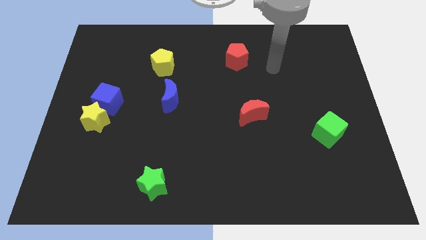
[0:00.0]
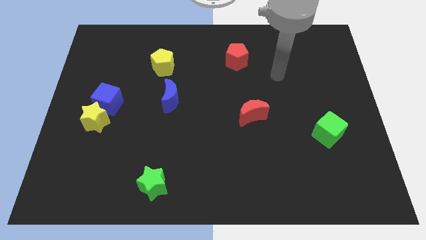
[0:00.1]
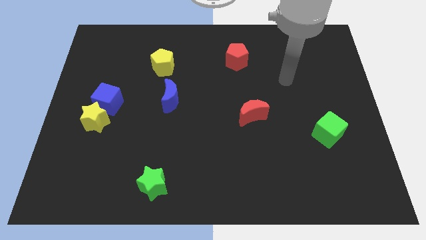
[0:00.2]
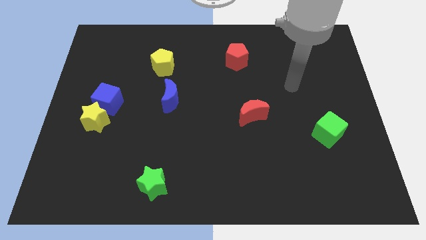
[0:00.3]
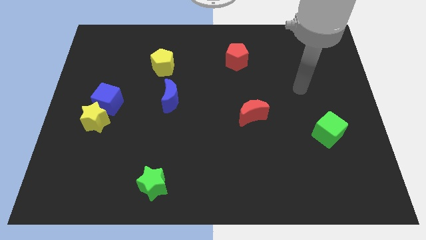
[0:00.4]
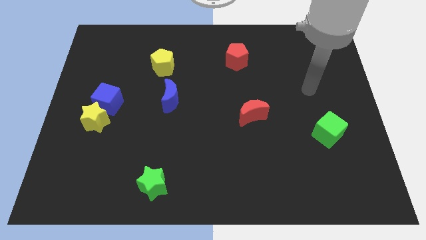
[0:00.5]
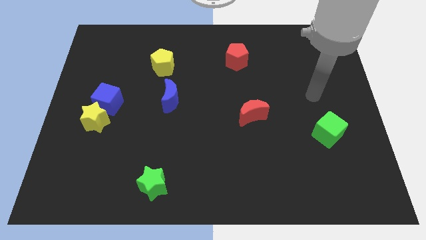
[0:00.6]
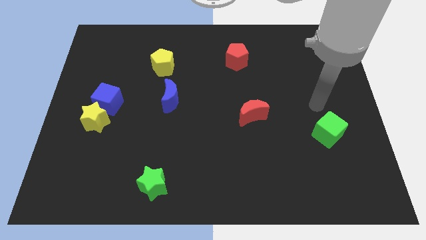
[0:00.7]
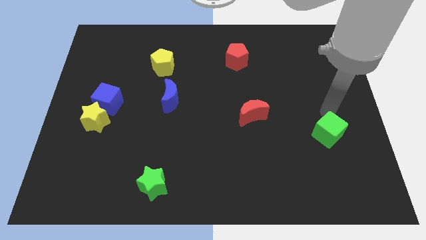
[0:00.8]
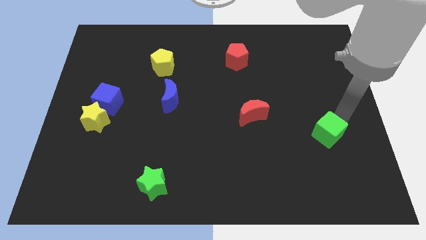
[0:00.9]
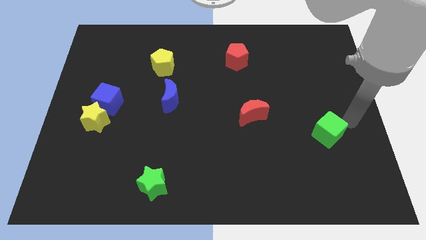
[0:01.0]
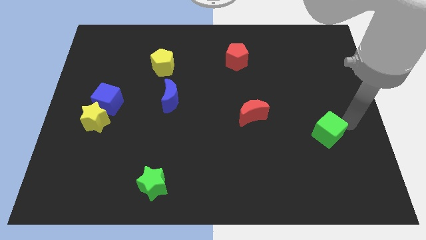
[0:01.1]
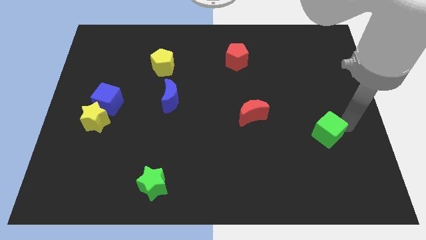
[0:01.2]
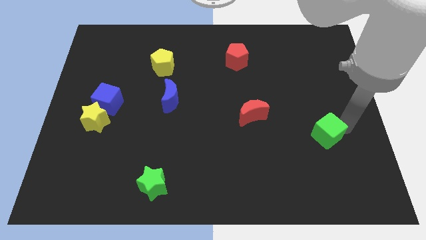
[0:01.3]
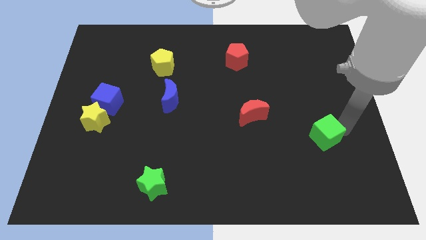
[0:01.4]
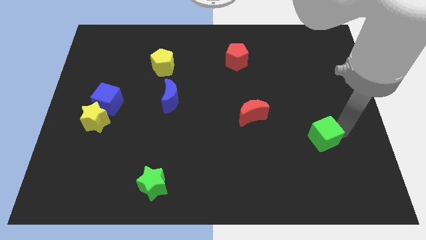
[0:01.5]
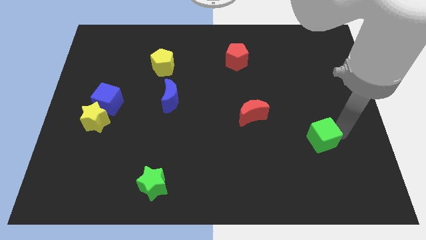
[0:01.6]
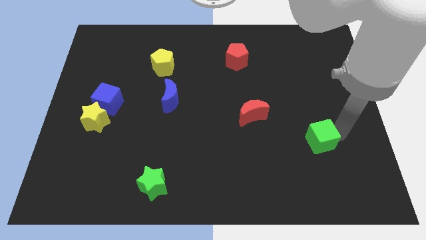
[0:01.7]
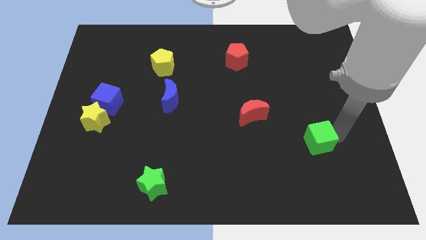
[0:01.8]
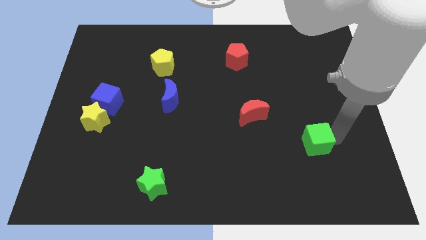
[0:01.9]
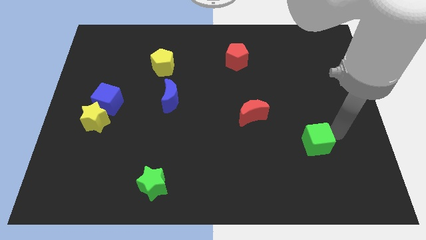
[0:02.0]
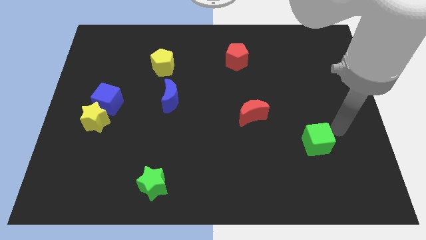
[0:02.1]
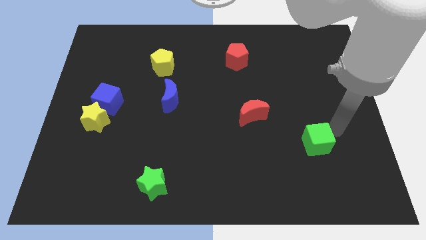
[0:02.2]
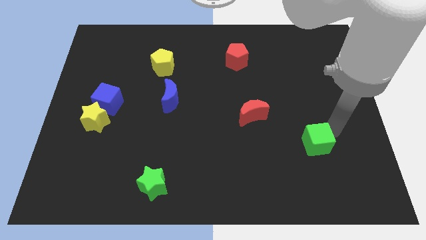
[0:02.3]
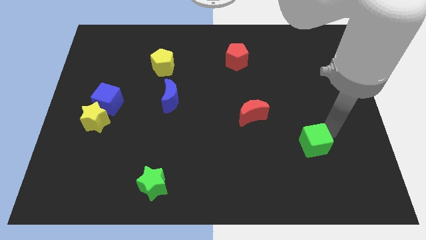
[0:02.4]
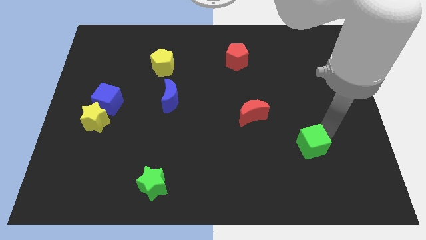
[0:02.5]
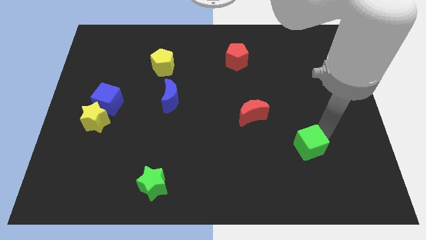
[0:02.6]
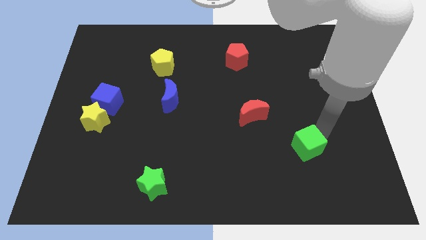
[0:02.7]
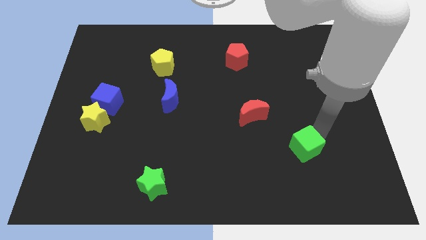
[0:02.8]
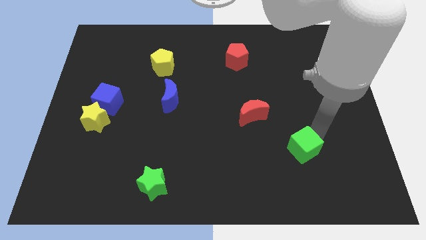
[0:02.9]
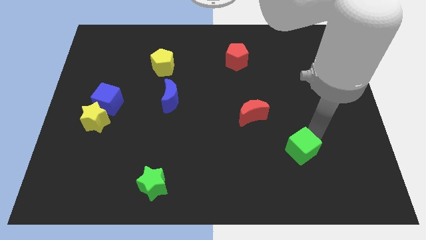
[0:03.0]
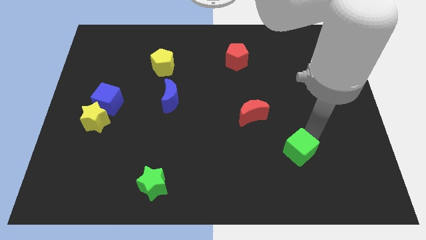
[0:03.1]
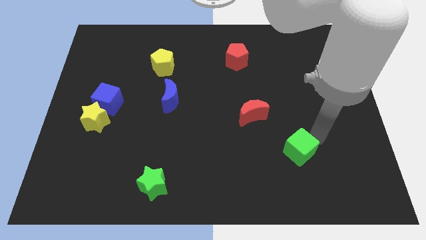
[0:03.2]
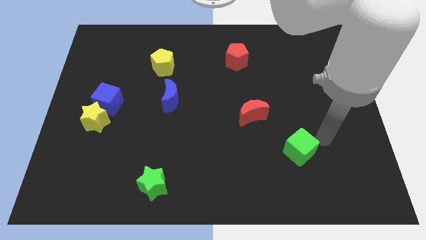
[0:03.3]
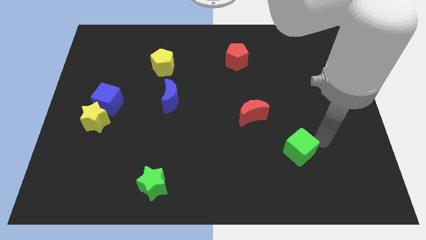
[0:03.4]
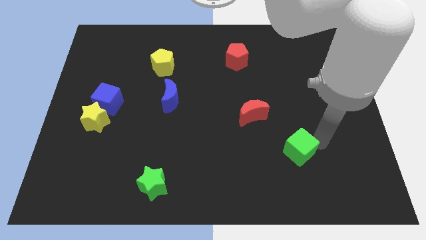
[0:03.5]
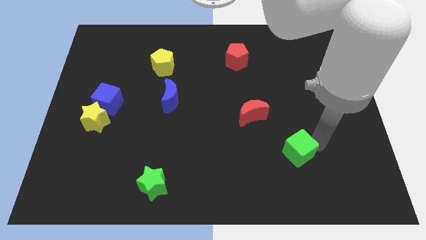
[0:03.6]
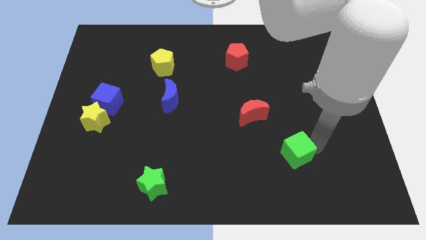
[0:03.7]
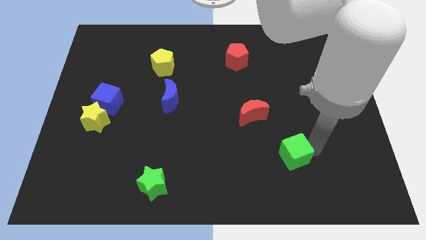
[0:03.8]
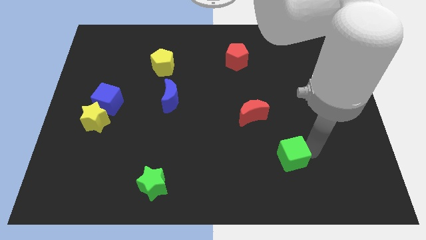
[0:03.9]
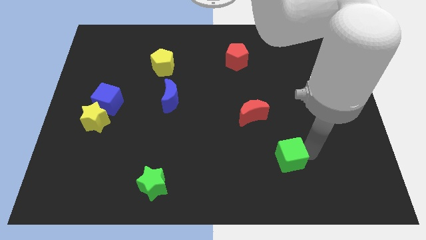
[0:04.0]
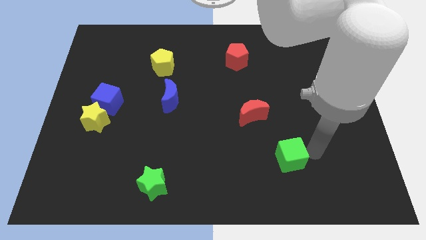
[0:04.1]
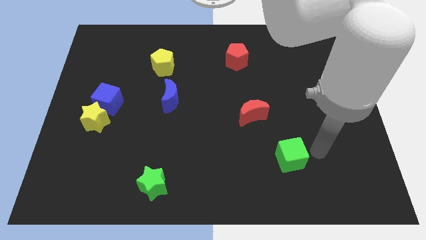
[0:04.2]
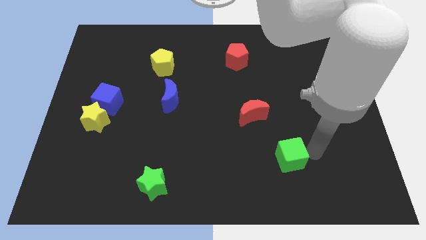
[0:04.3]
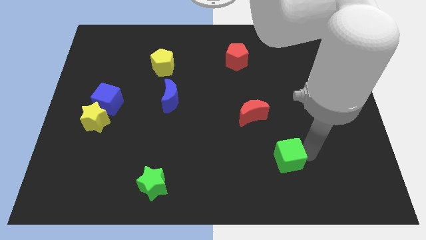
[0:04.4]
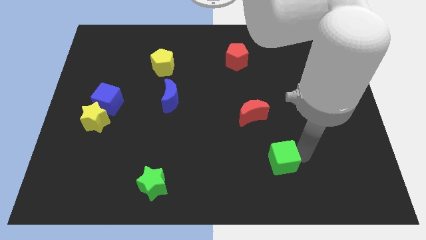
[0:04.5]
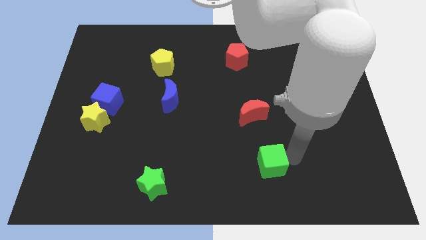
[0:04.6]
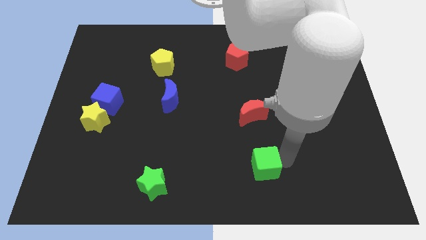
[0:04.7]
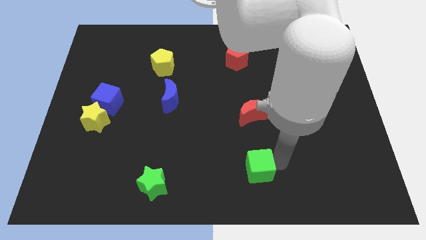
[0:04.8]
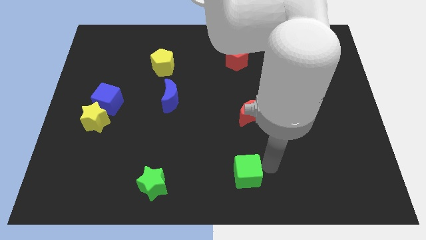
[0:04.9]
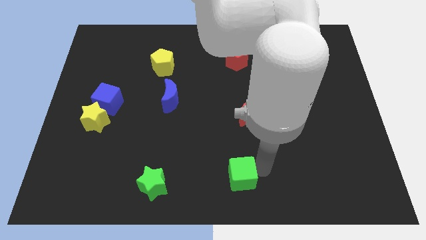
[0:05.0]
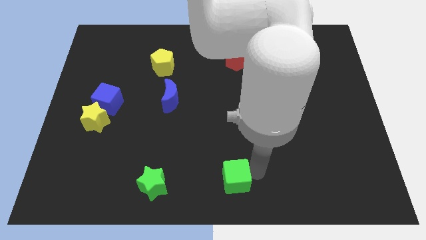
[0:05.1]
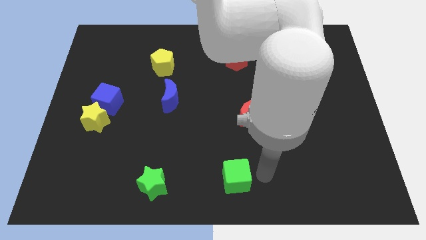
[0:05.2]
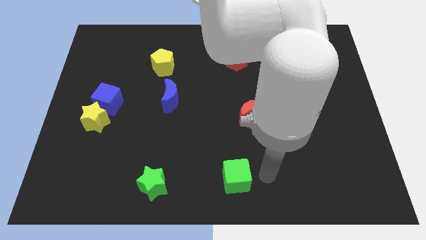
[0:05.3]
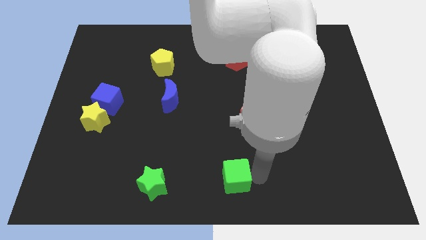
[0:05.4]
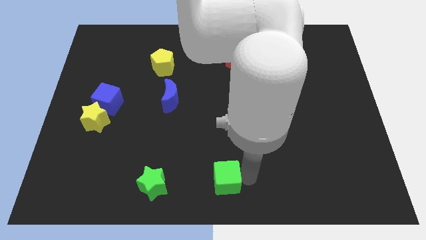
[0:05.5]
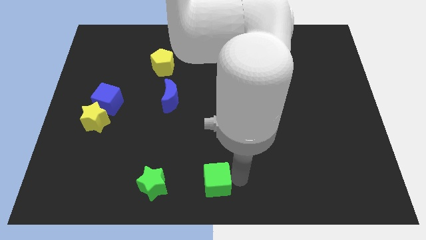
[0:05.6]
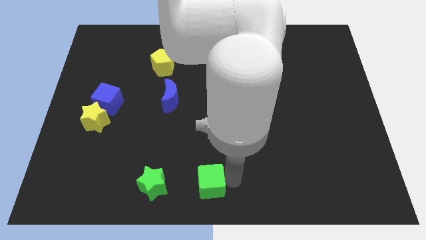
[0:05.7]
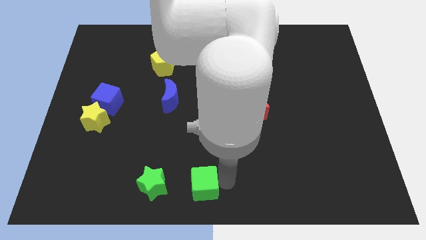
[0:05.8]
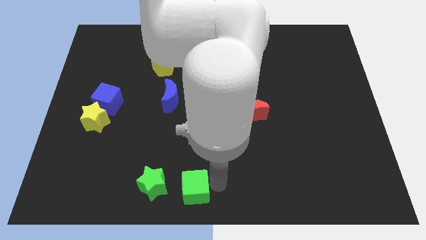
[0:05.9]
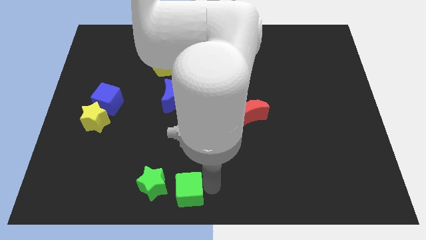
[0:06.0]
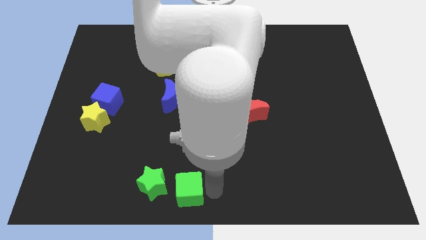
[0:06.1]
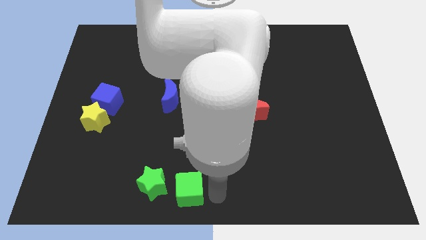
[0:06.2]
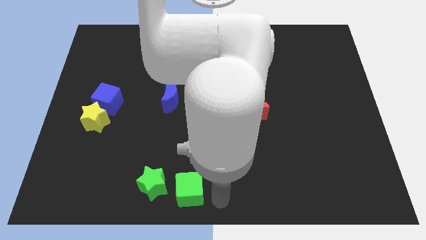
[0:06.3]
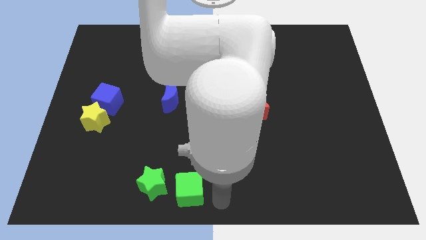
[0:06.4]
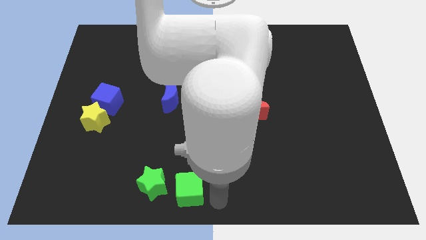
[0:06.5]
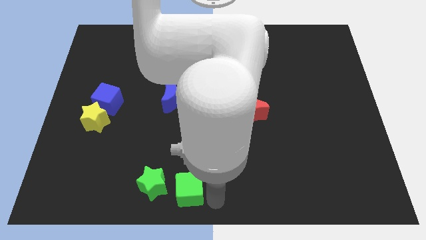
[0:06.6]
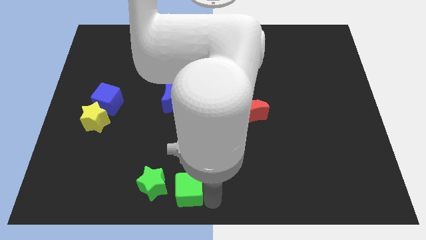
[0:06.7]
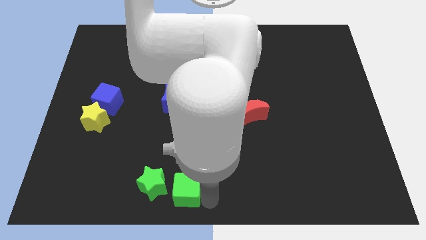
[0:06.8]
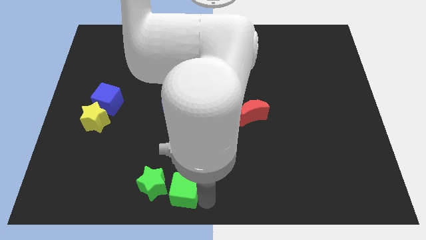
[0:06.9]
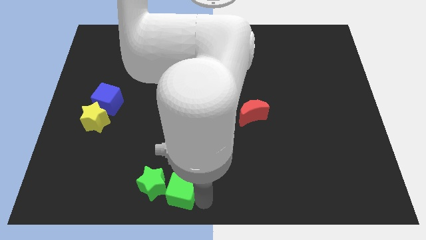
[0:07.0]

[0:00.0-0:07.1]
move the green cube towards the green star

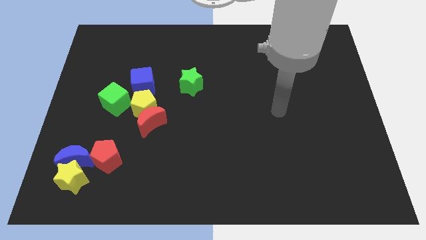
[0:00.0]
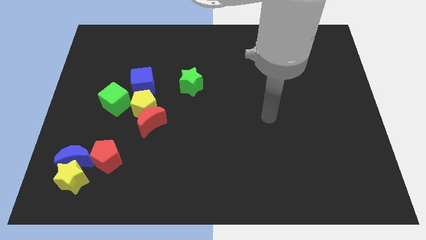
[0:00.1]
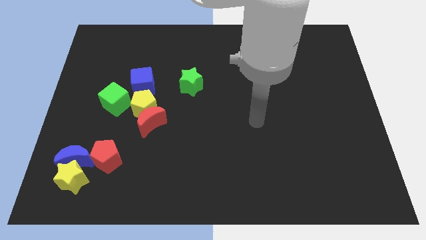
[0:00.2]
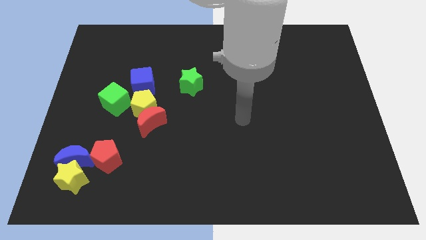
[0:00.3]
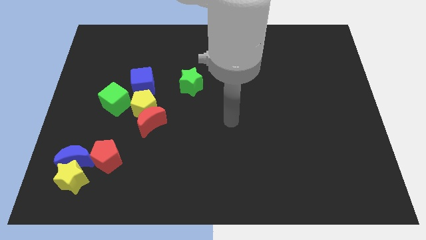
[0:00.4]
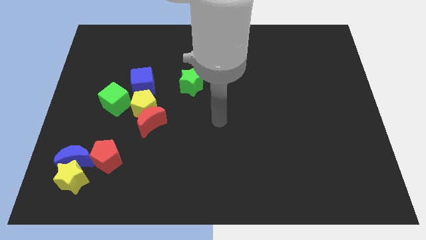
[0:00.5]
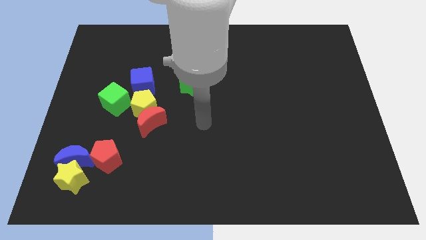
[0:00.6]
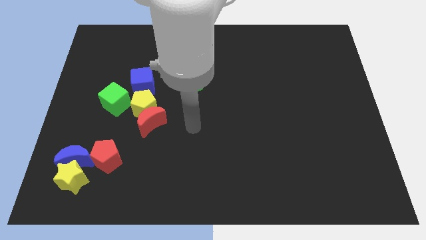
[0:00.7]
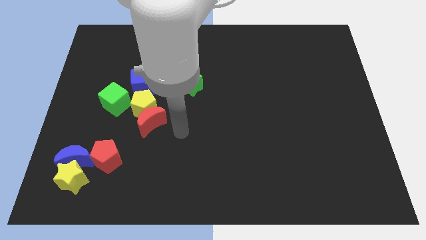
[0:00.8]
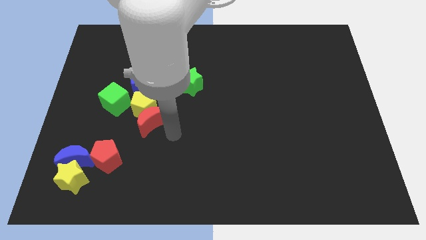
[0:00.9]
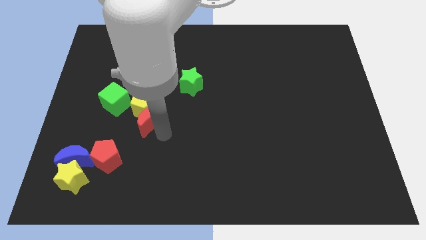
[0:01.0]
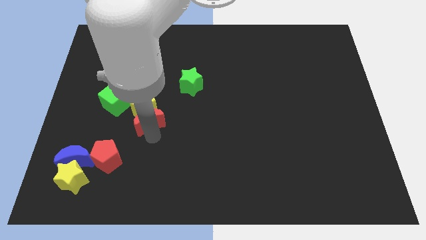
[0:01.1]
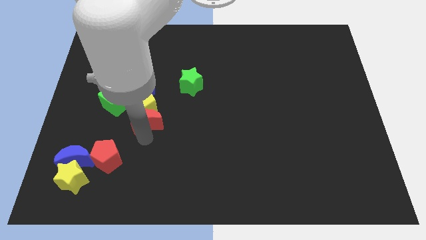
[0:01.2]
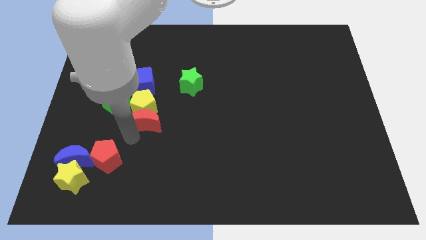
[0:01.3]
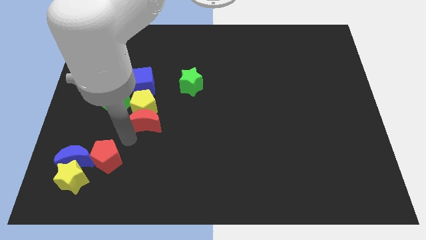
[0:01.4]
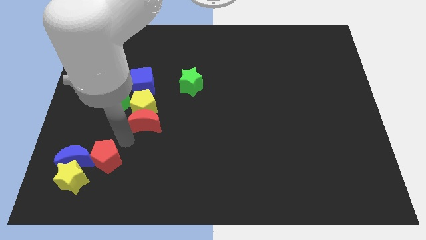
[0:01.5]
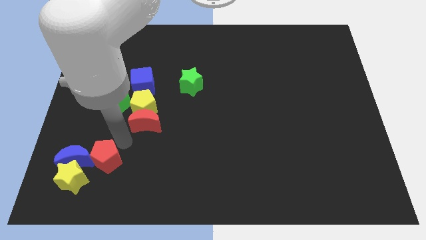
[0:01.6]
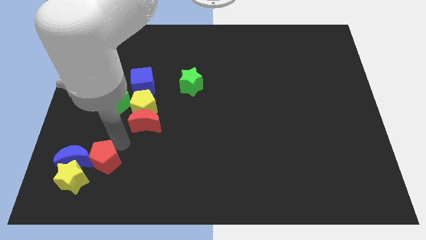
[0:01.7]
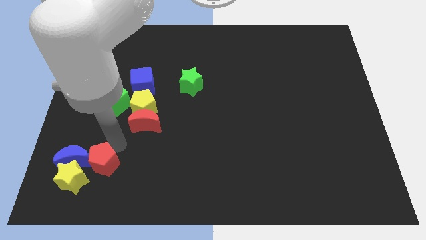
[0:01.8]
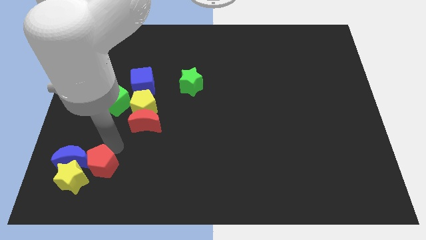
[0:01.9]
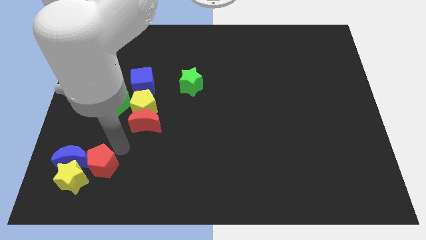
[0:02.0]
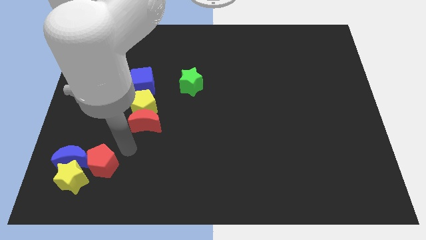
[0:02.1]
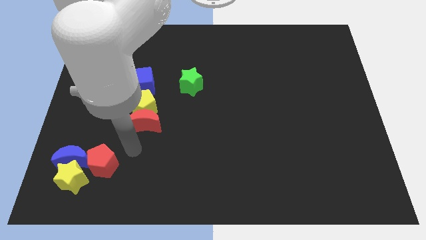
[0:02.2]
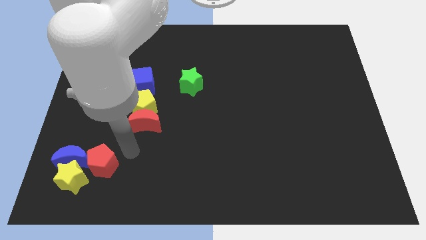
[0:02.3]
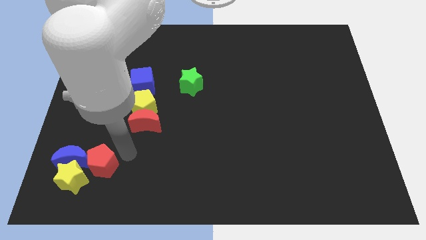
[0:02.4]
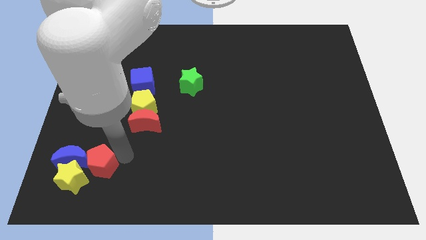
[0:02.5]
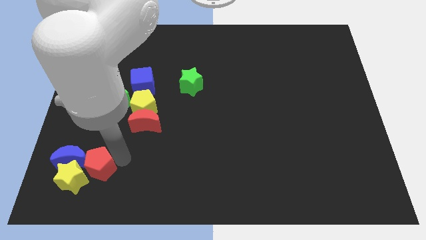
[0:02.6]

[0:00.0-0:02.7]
move the red pentagon towards the yellow star
